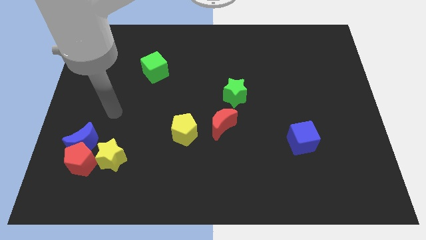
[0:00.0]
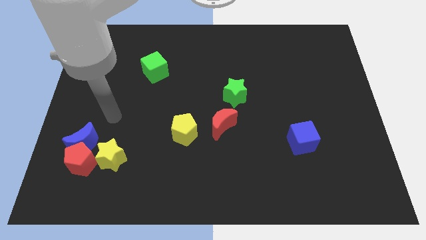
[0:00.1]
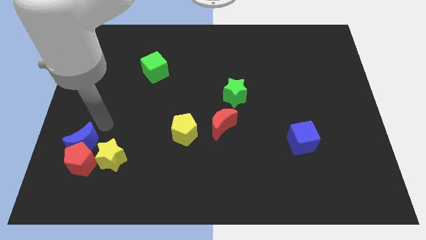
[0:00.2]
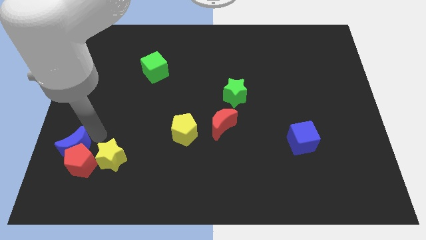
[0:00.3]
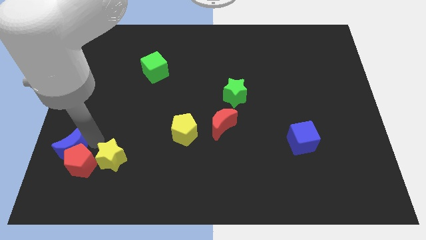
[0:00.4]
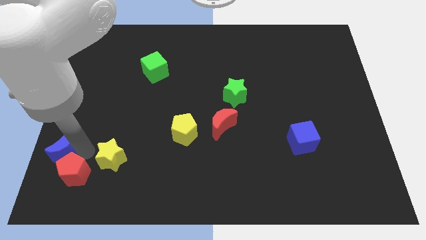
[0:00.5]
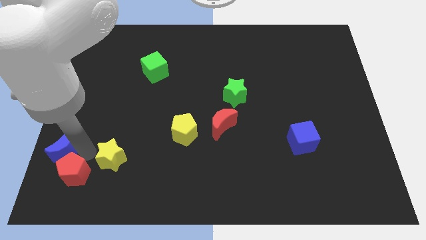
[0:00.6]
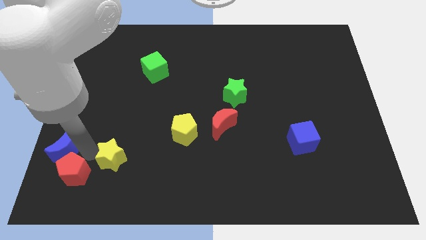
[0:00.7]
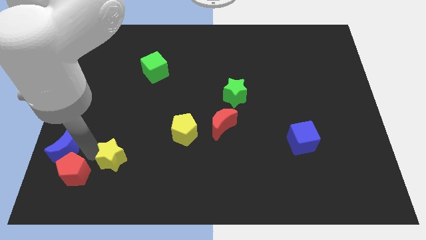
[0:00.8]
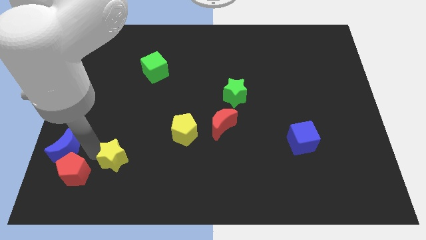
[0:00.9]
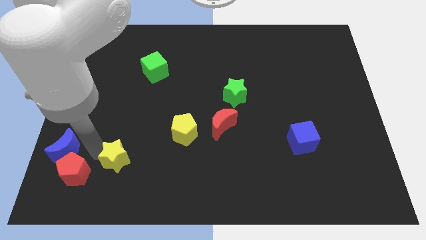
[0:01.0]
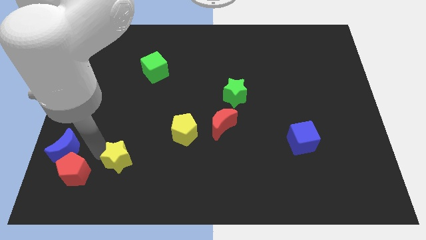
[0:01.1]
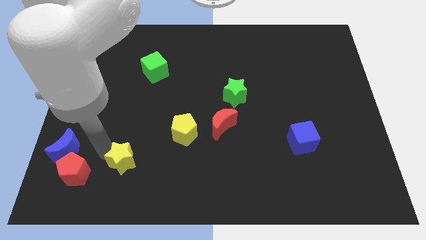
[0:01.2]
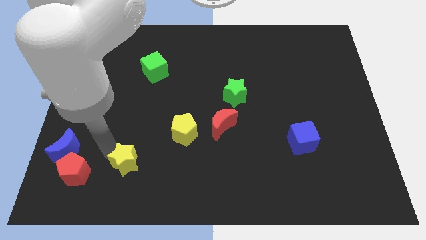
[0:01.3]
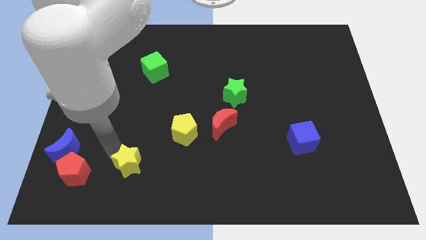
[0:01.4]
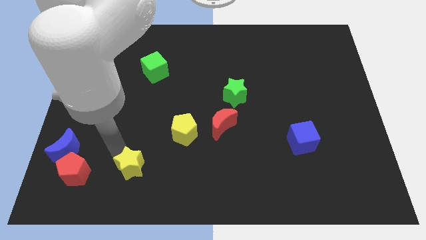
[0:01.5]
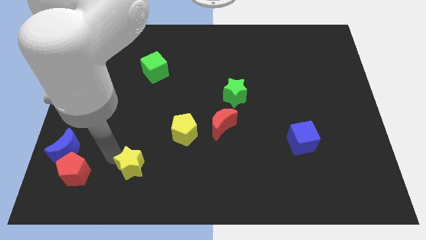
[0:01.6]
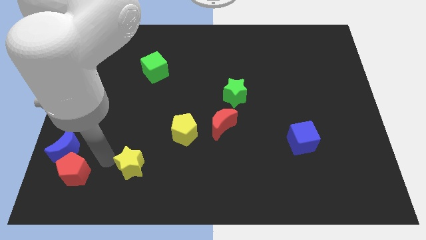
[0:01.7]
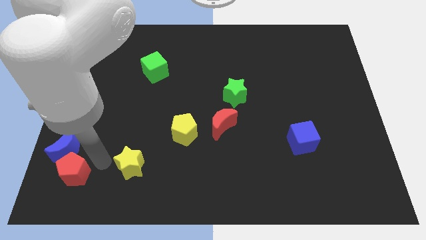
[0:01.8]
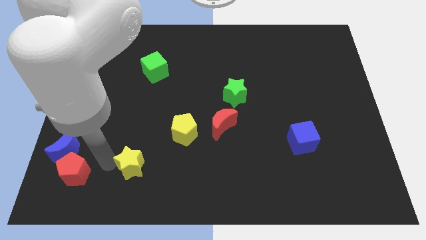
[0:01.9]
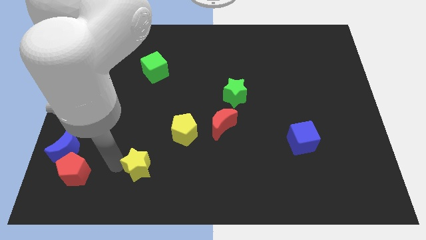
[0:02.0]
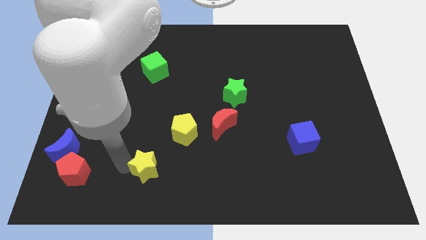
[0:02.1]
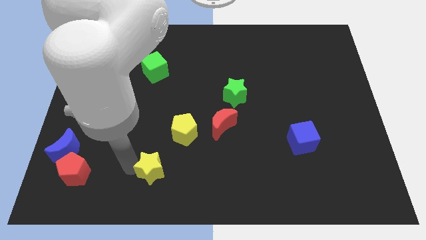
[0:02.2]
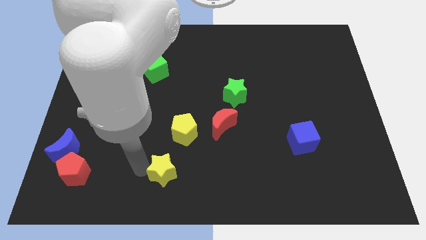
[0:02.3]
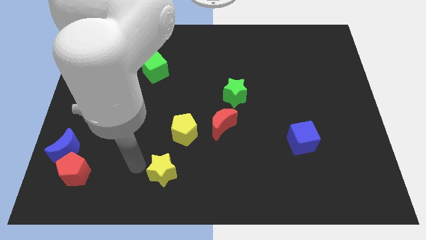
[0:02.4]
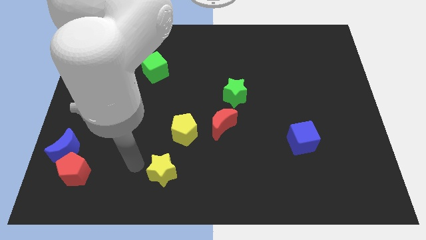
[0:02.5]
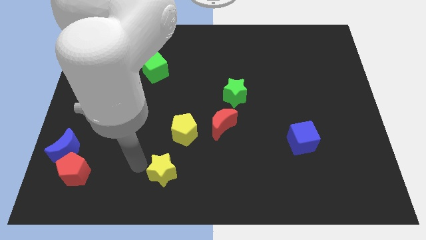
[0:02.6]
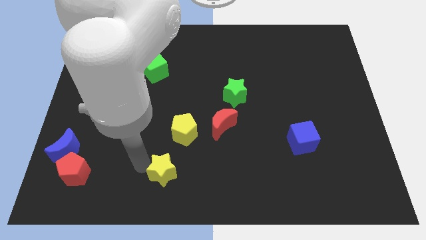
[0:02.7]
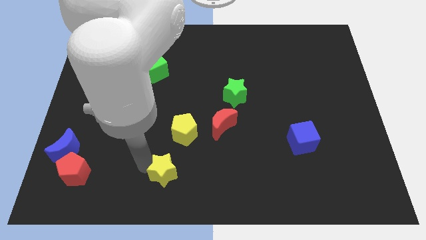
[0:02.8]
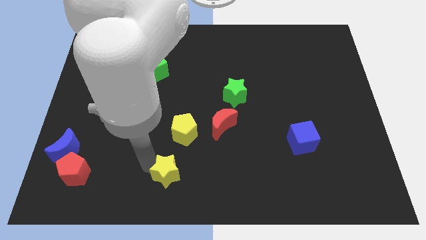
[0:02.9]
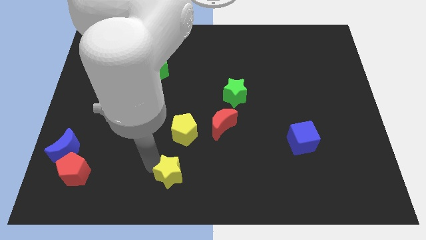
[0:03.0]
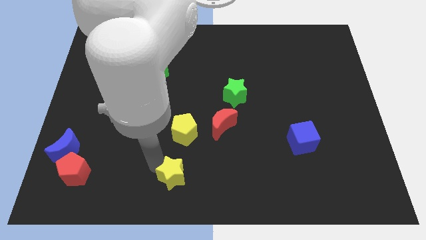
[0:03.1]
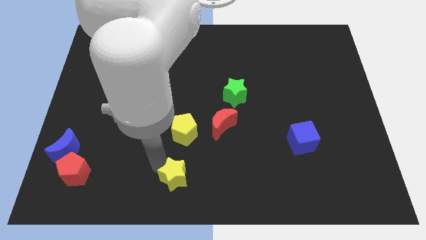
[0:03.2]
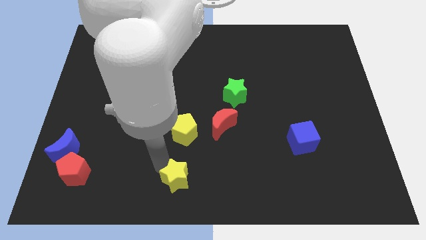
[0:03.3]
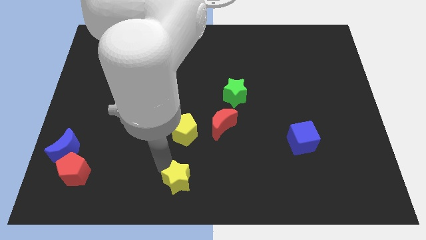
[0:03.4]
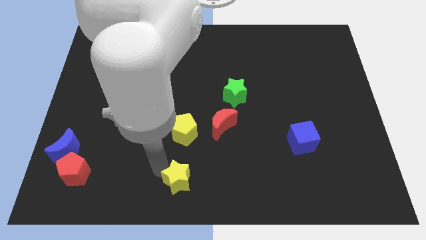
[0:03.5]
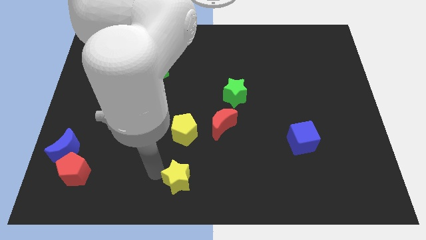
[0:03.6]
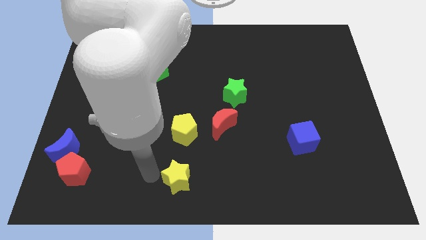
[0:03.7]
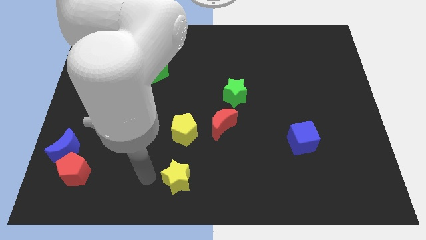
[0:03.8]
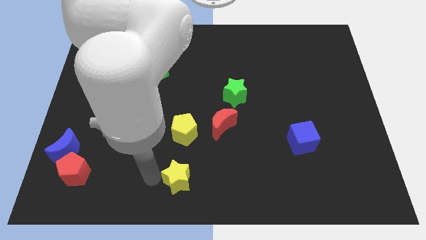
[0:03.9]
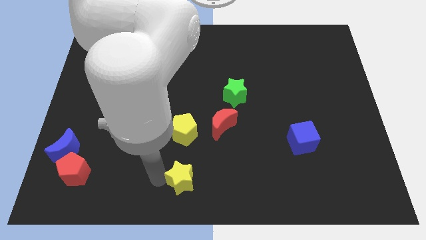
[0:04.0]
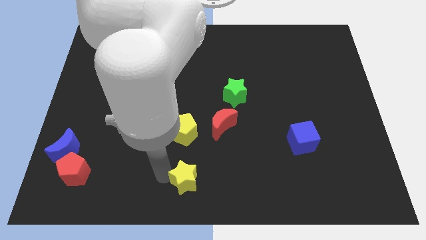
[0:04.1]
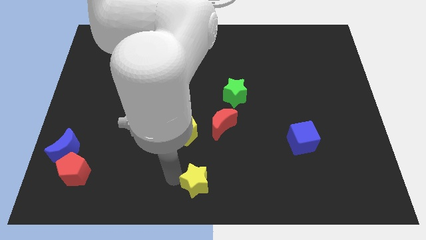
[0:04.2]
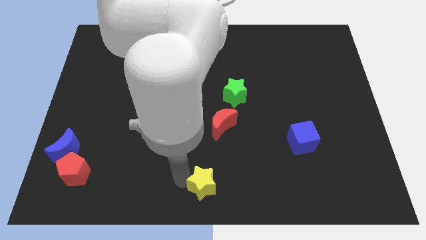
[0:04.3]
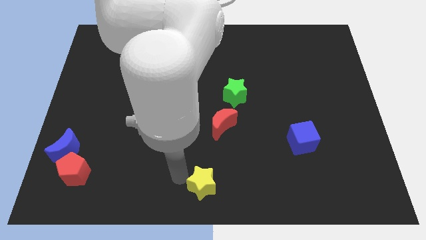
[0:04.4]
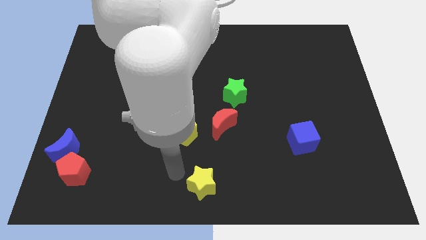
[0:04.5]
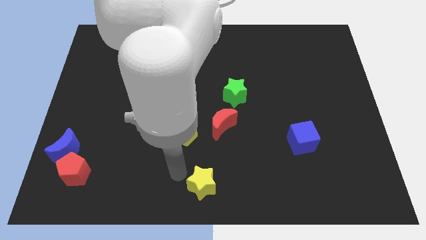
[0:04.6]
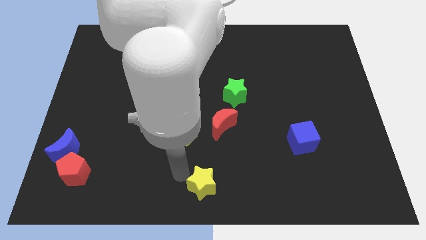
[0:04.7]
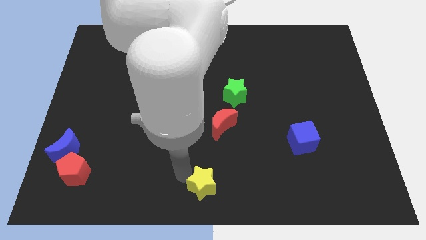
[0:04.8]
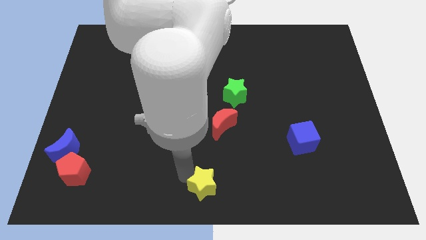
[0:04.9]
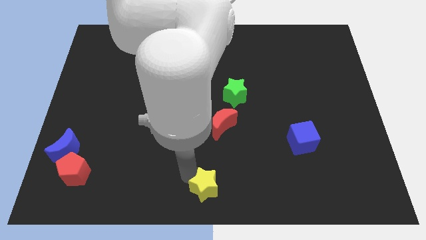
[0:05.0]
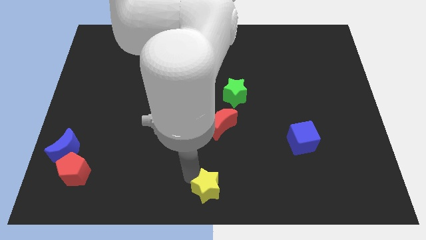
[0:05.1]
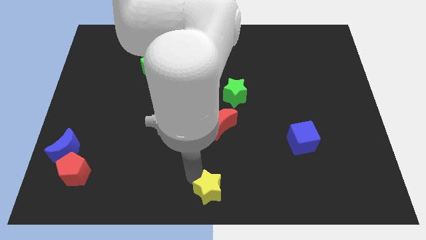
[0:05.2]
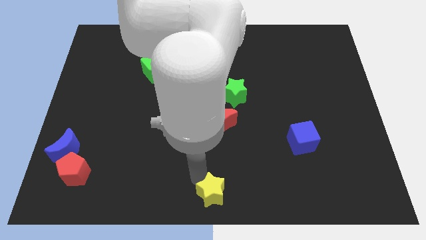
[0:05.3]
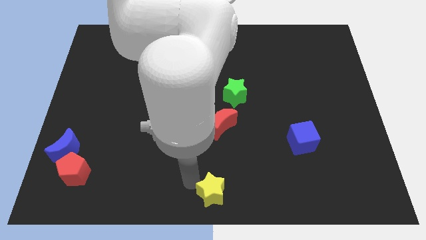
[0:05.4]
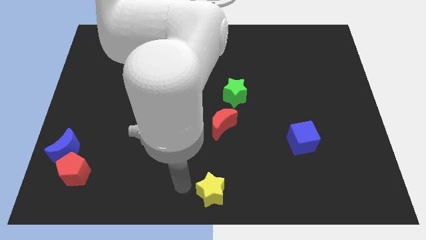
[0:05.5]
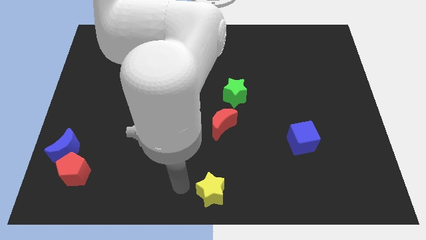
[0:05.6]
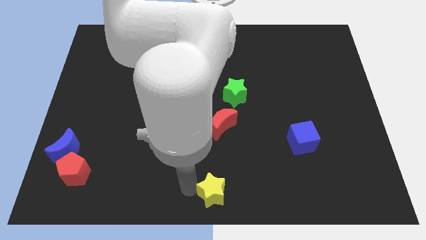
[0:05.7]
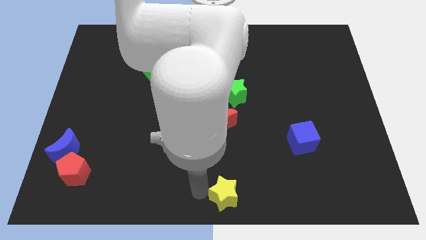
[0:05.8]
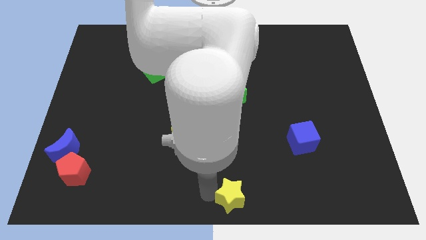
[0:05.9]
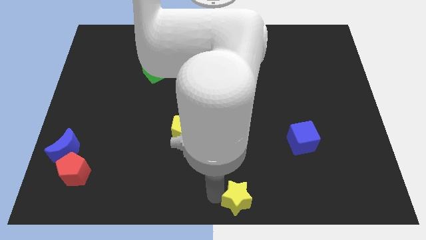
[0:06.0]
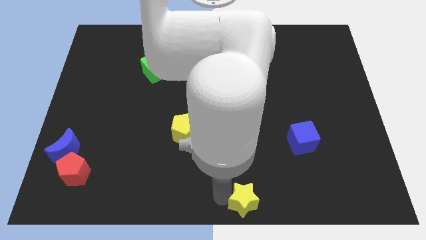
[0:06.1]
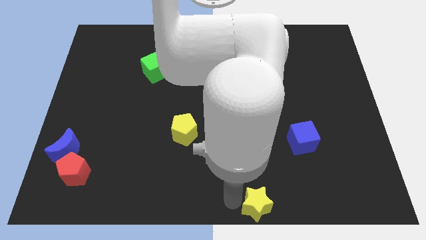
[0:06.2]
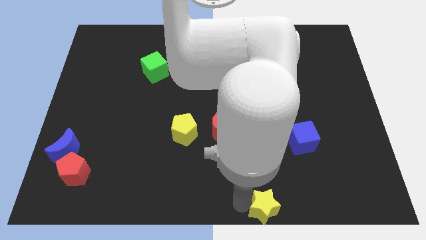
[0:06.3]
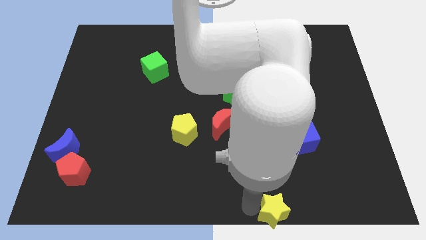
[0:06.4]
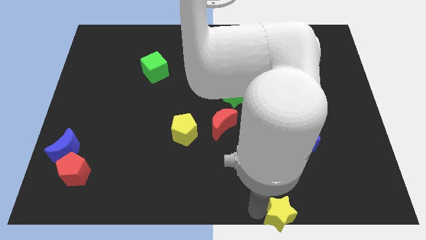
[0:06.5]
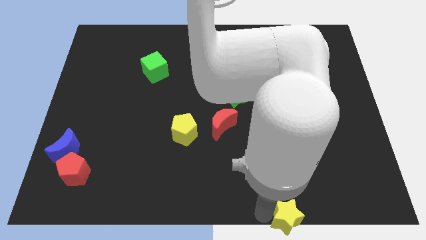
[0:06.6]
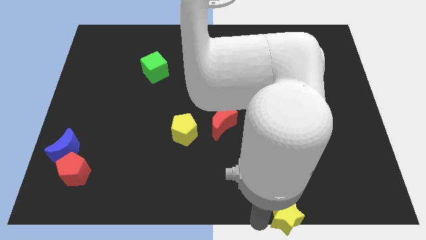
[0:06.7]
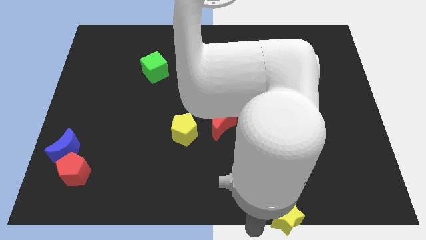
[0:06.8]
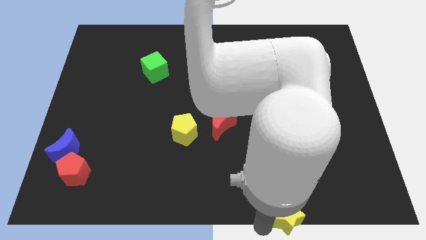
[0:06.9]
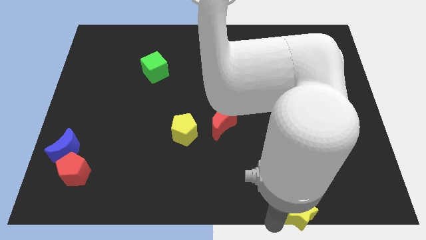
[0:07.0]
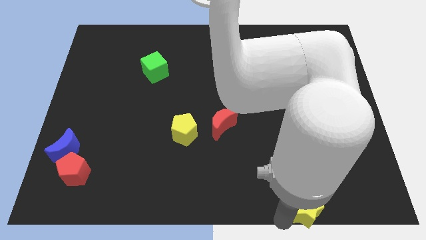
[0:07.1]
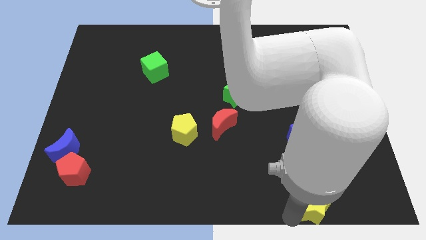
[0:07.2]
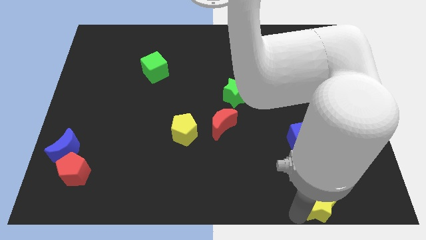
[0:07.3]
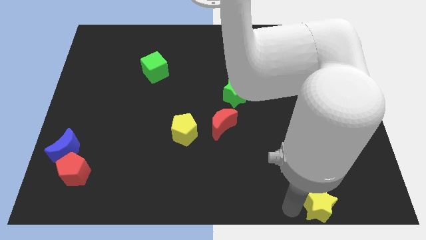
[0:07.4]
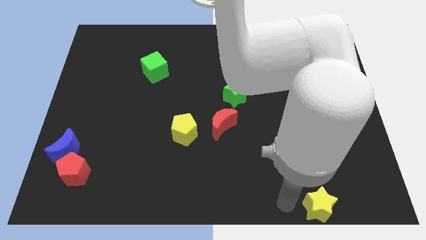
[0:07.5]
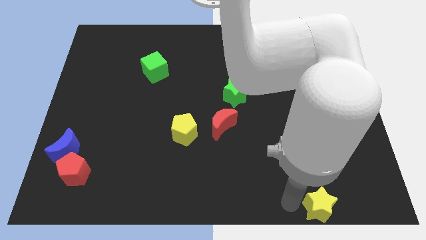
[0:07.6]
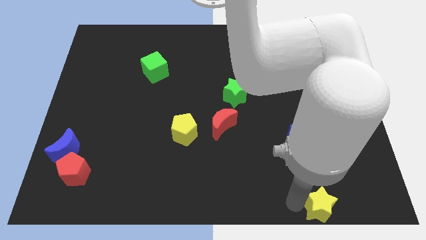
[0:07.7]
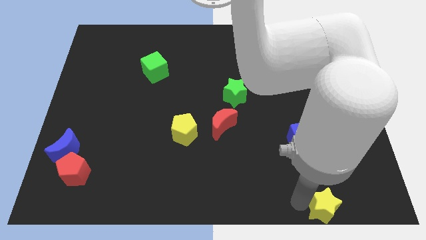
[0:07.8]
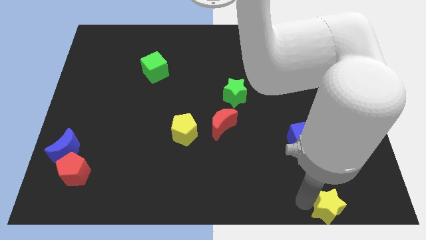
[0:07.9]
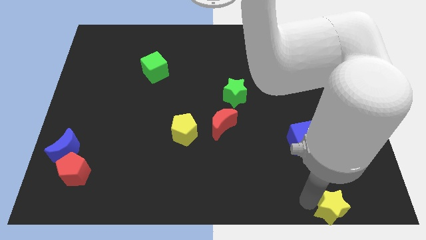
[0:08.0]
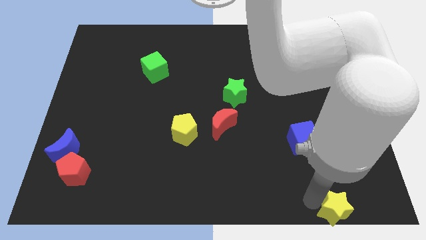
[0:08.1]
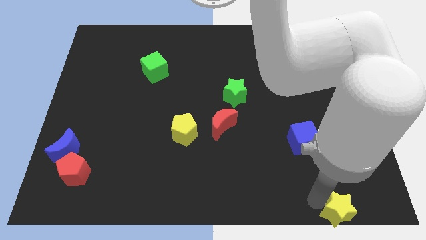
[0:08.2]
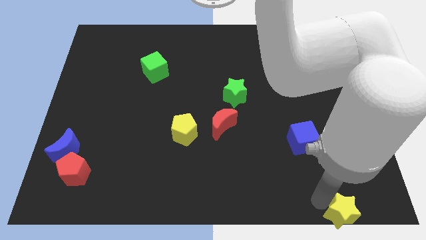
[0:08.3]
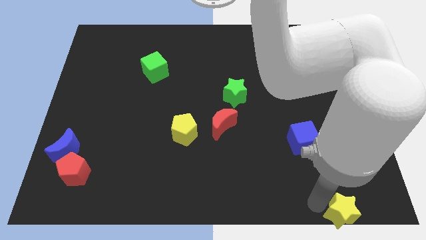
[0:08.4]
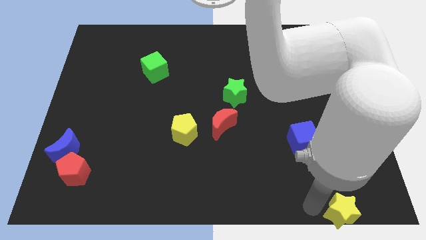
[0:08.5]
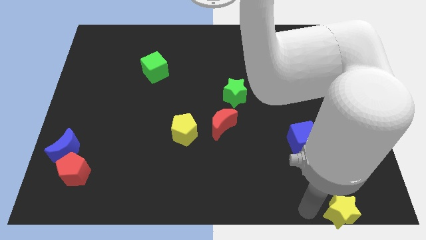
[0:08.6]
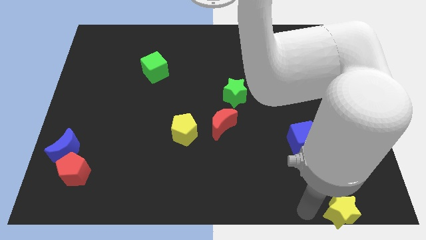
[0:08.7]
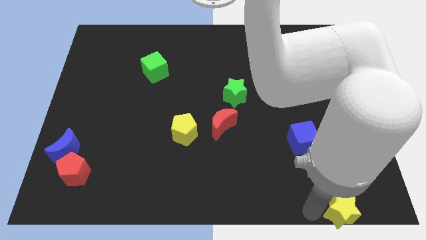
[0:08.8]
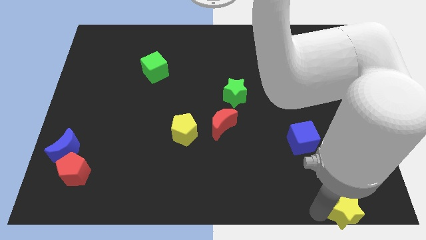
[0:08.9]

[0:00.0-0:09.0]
push the yellow star to the lower right corner
